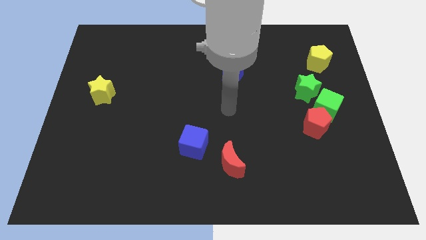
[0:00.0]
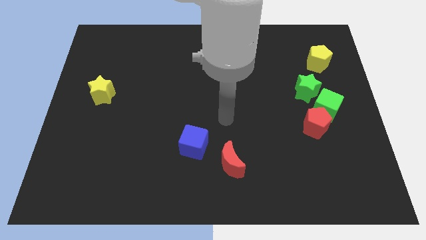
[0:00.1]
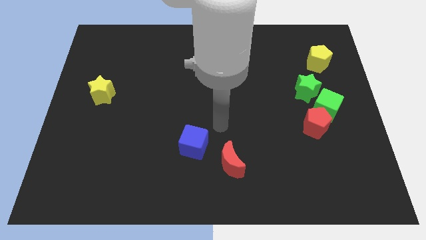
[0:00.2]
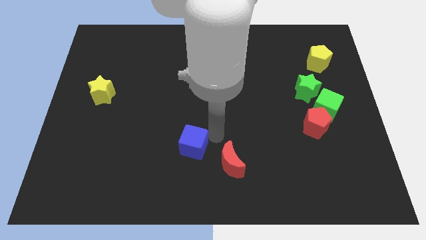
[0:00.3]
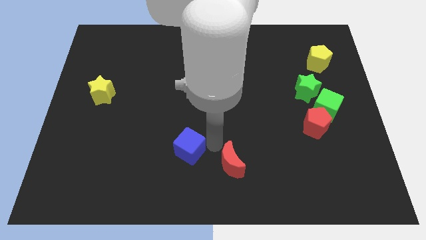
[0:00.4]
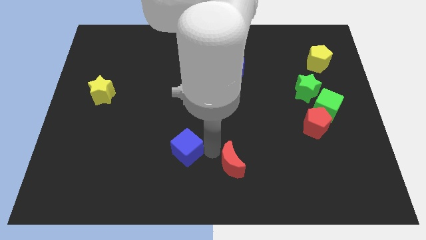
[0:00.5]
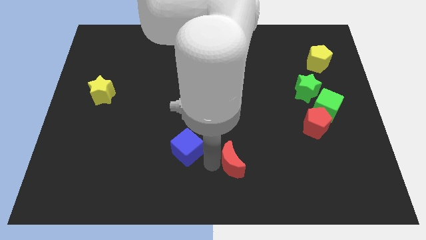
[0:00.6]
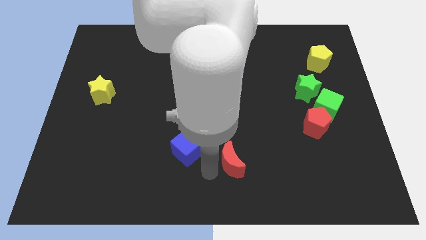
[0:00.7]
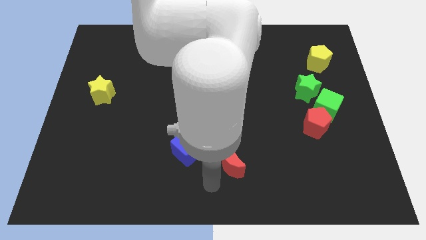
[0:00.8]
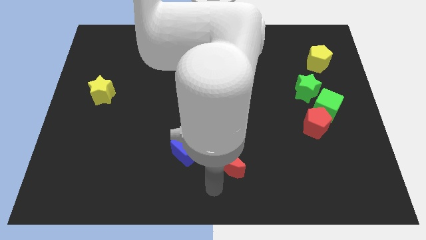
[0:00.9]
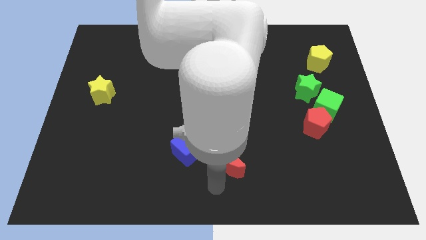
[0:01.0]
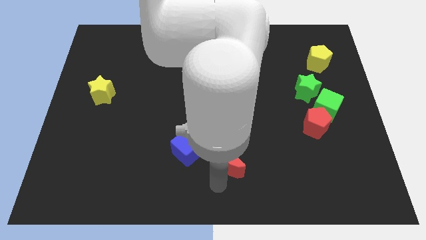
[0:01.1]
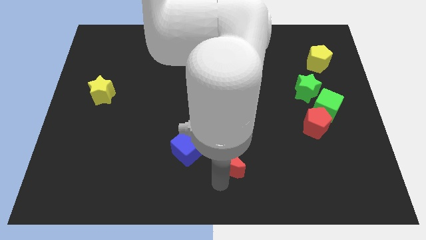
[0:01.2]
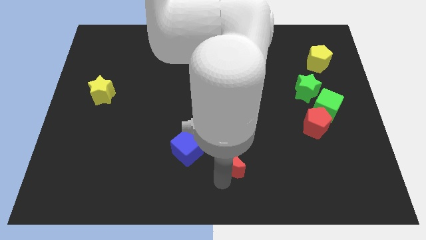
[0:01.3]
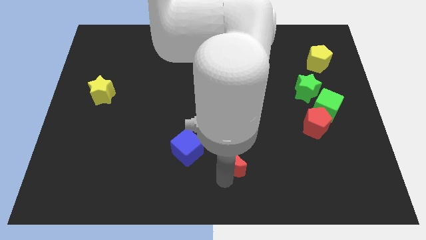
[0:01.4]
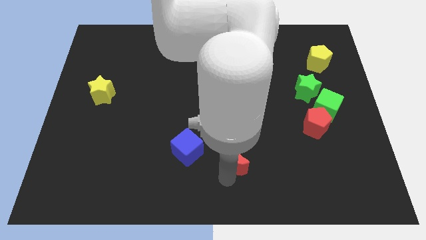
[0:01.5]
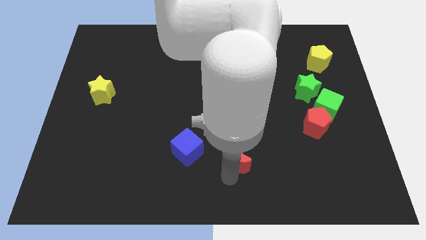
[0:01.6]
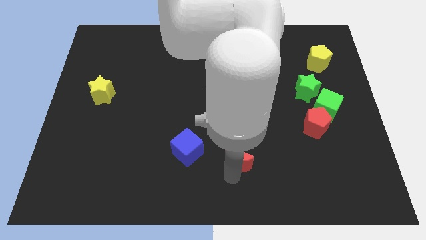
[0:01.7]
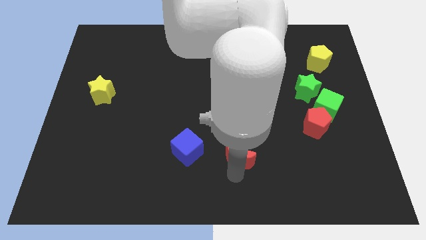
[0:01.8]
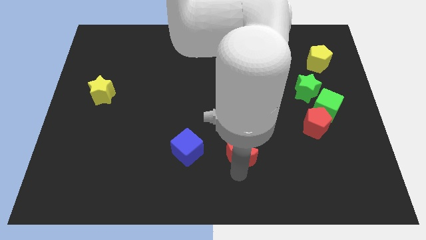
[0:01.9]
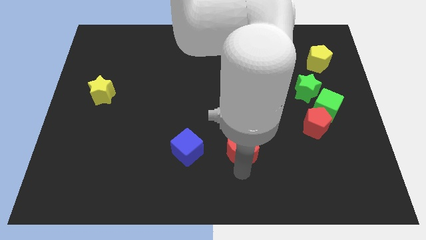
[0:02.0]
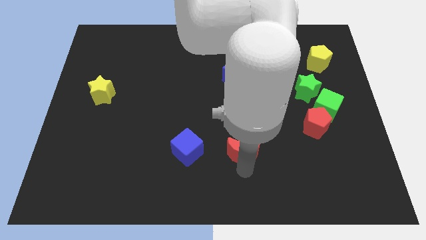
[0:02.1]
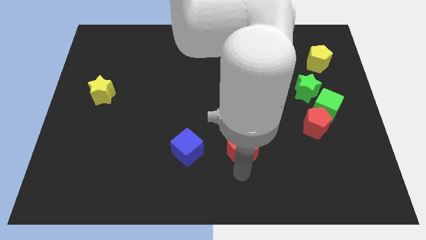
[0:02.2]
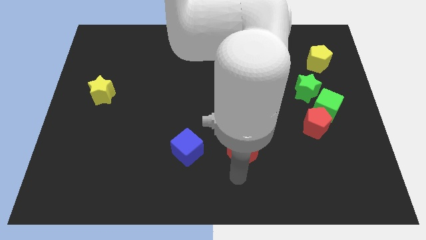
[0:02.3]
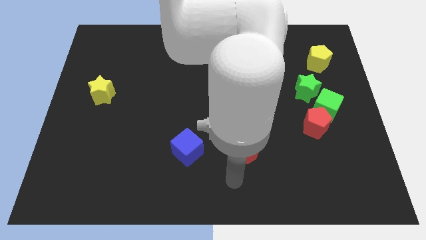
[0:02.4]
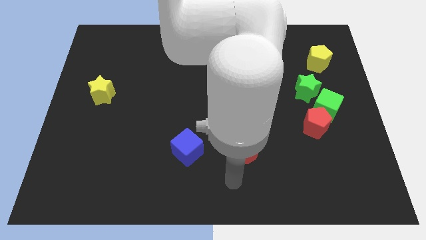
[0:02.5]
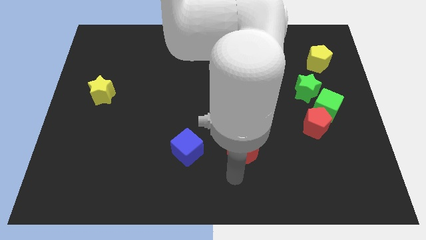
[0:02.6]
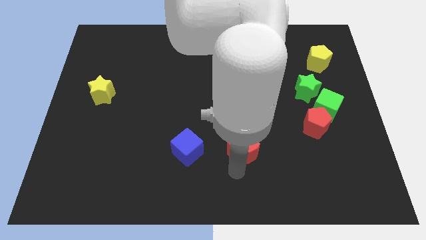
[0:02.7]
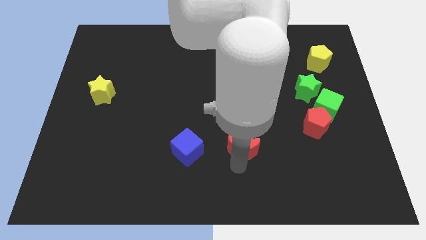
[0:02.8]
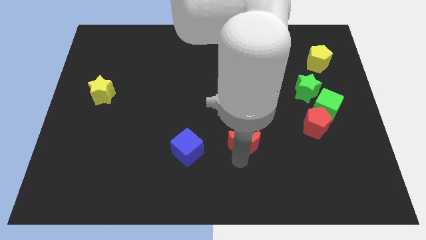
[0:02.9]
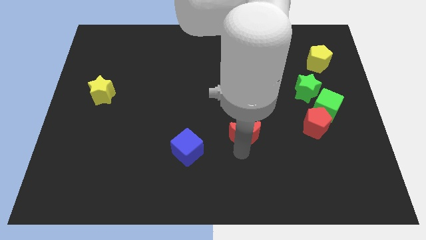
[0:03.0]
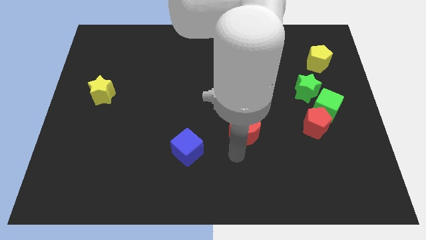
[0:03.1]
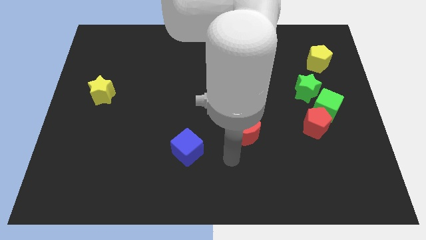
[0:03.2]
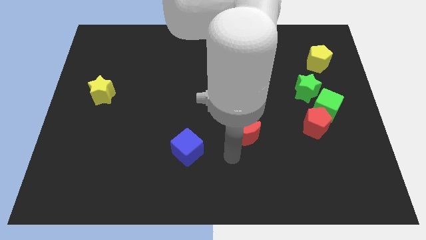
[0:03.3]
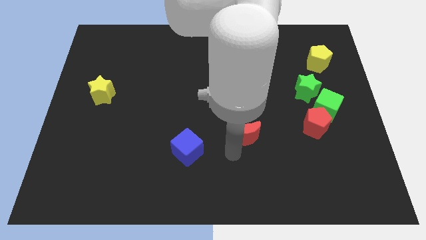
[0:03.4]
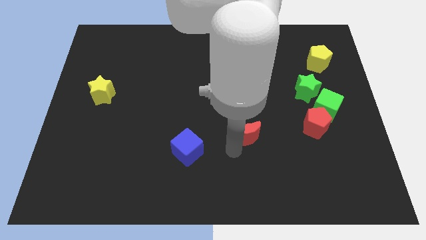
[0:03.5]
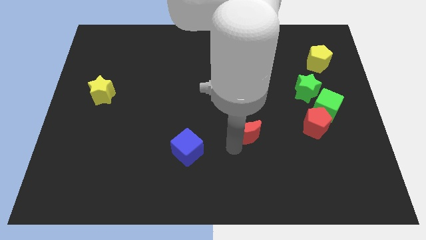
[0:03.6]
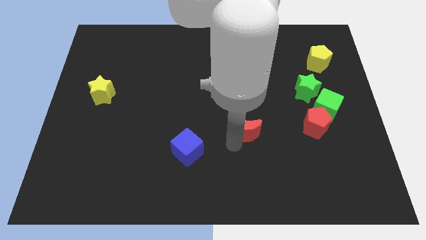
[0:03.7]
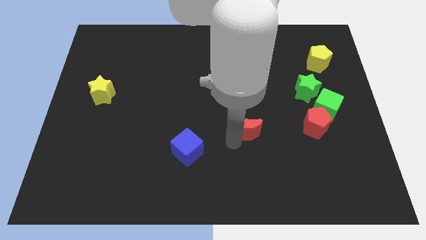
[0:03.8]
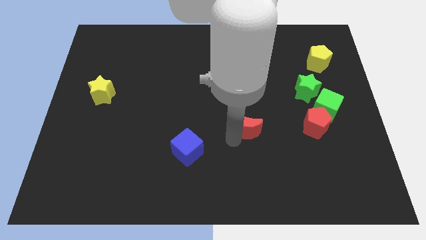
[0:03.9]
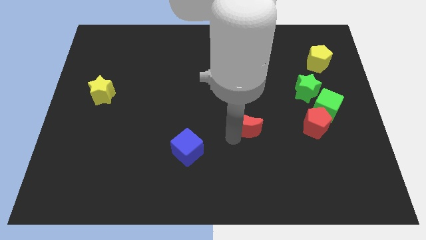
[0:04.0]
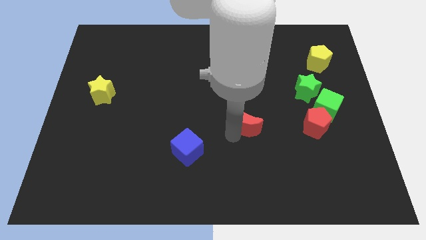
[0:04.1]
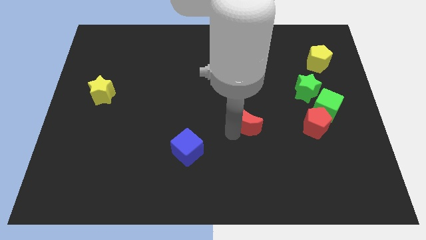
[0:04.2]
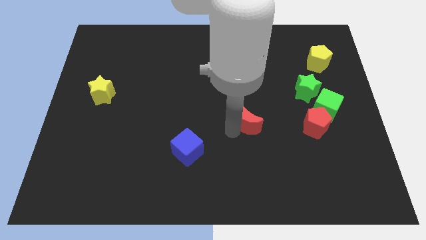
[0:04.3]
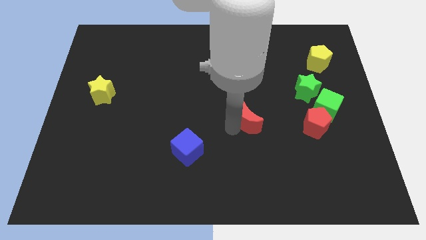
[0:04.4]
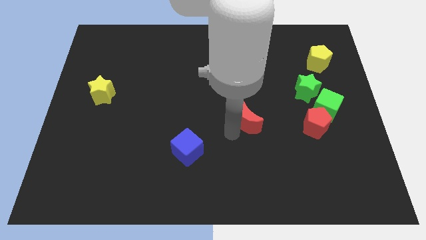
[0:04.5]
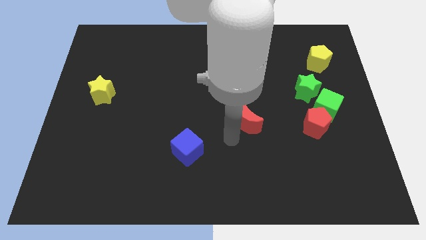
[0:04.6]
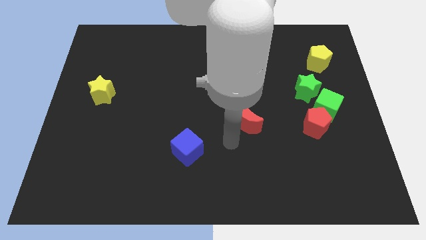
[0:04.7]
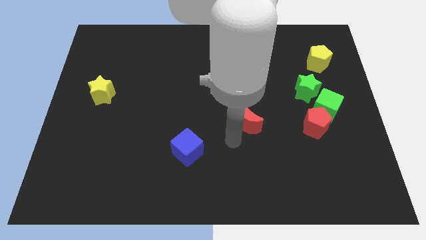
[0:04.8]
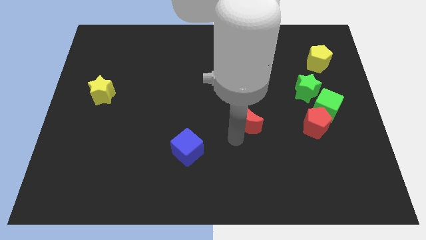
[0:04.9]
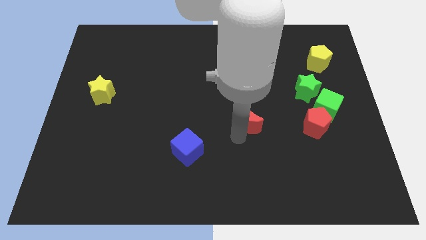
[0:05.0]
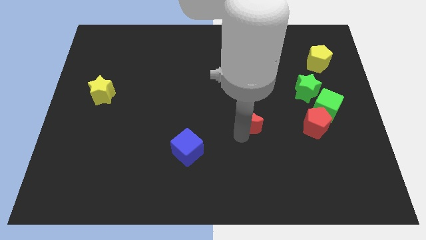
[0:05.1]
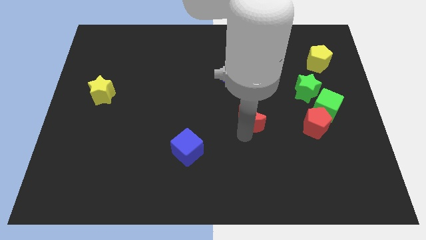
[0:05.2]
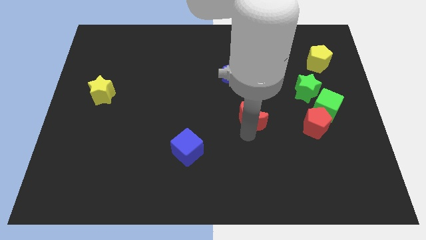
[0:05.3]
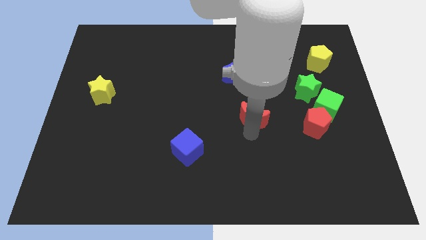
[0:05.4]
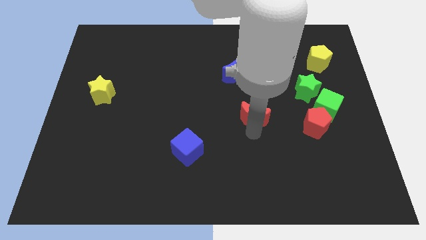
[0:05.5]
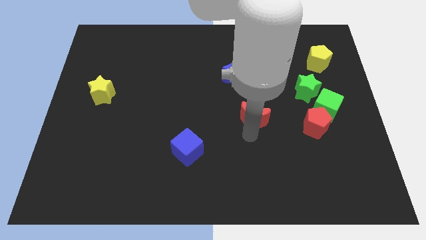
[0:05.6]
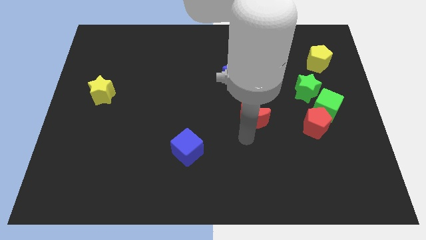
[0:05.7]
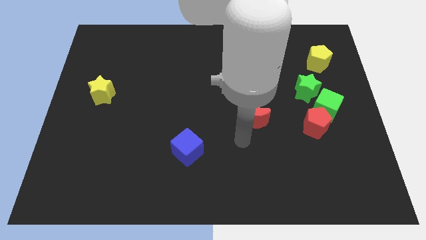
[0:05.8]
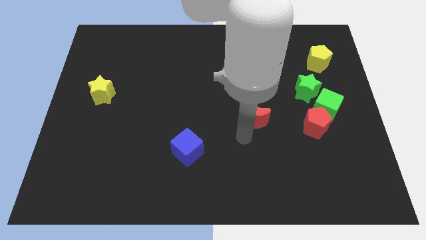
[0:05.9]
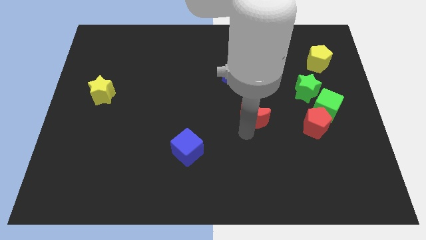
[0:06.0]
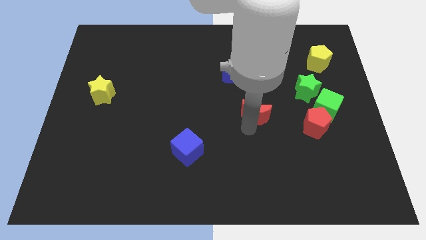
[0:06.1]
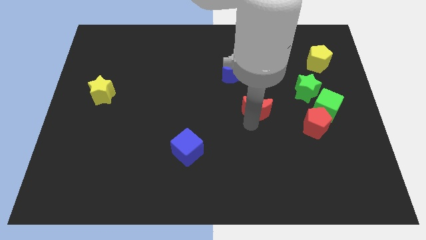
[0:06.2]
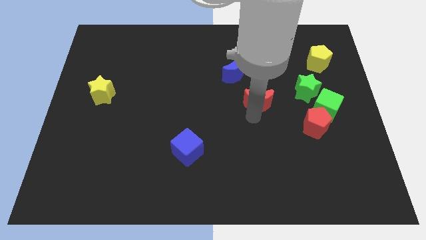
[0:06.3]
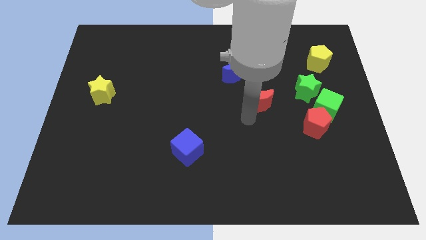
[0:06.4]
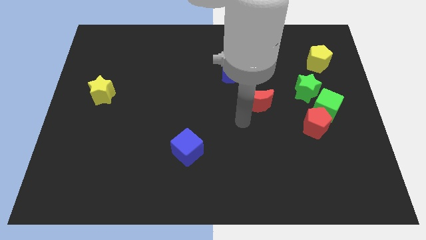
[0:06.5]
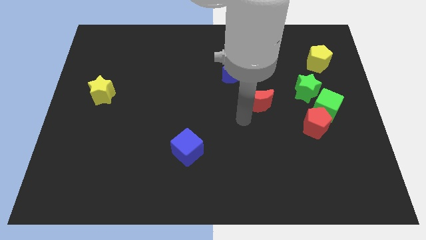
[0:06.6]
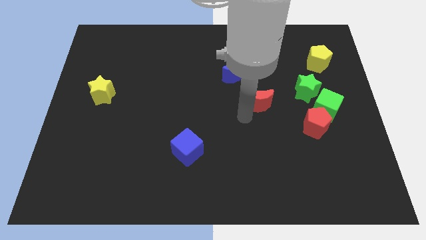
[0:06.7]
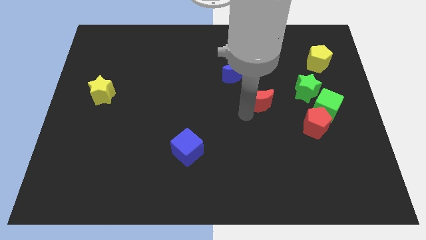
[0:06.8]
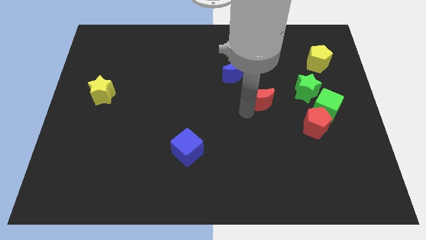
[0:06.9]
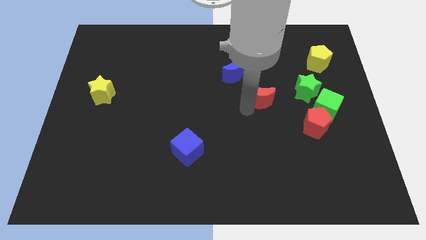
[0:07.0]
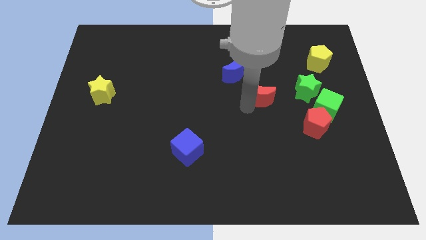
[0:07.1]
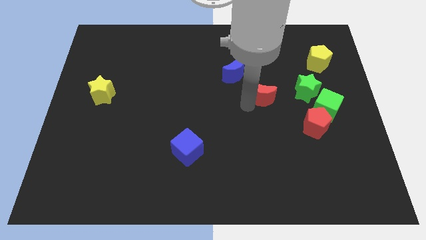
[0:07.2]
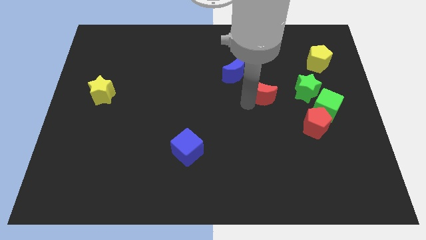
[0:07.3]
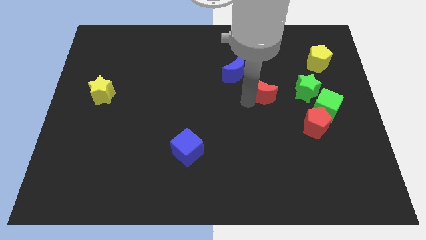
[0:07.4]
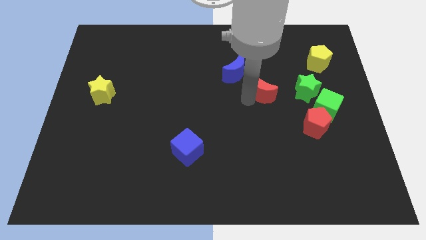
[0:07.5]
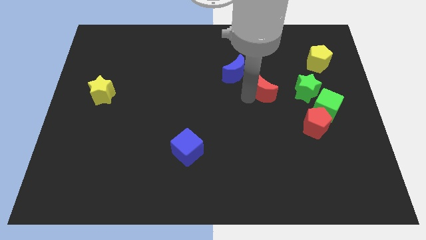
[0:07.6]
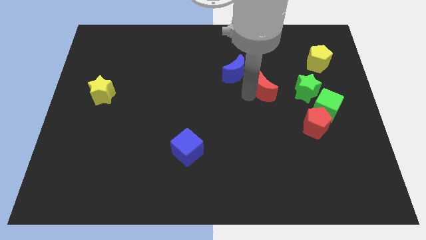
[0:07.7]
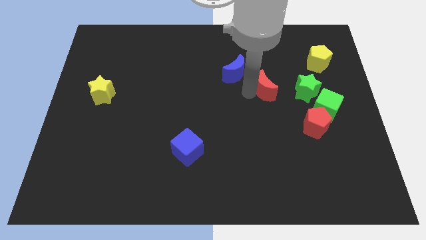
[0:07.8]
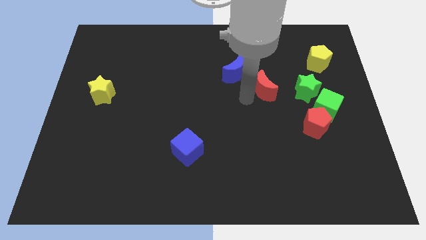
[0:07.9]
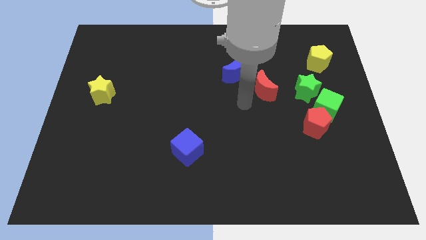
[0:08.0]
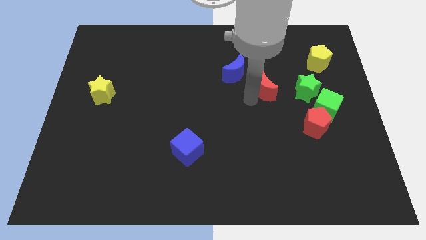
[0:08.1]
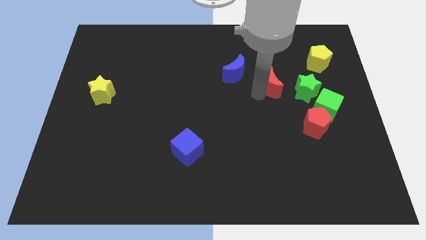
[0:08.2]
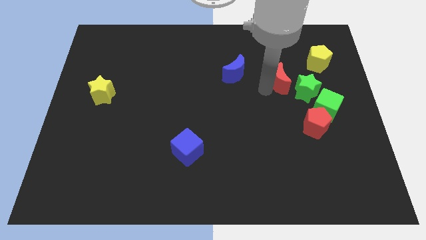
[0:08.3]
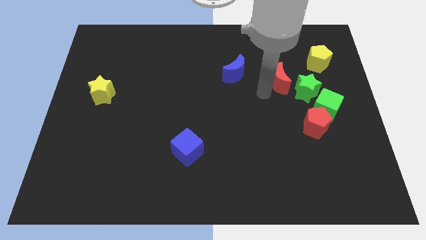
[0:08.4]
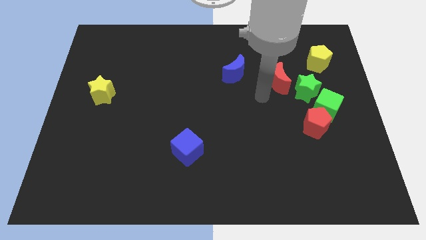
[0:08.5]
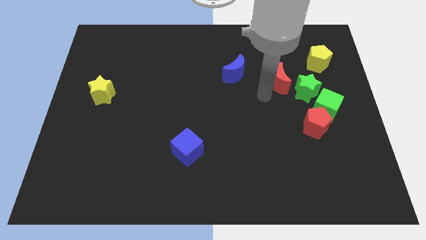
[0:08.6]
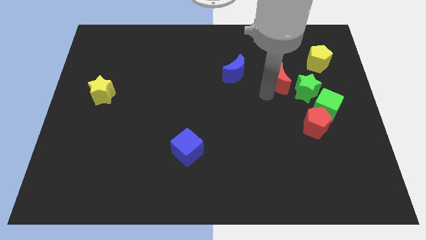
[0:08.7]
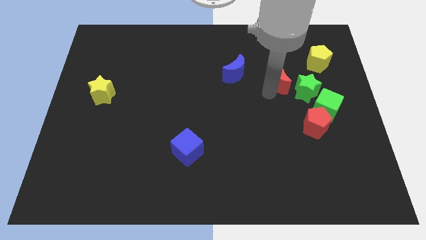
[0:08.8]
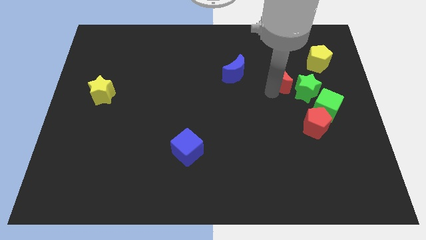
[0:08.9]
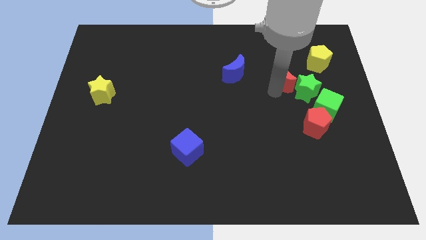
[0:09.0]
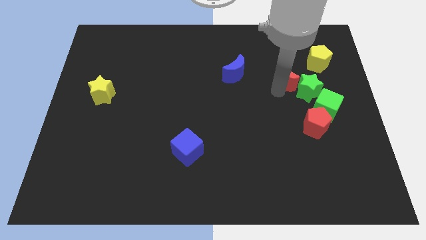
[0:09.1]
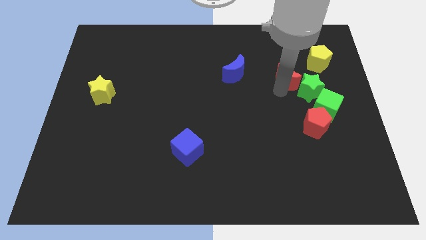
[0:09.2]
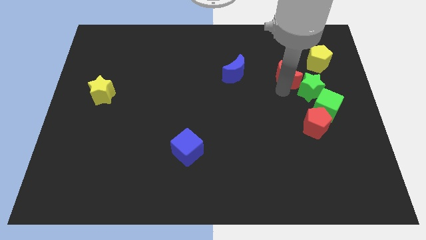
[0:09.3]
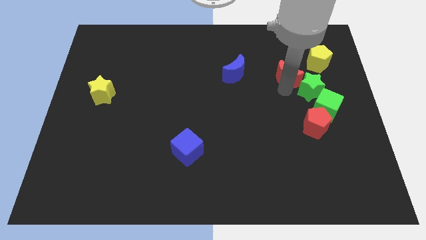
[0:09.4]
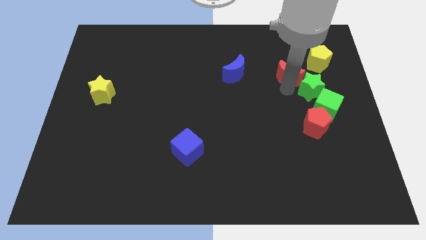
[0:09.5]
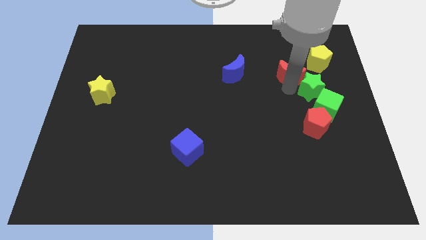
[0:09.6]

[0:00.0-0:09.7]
move the red moon above the red pentagon
